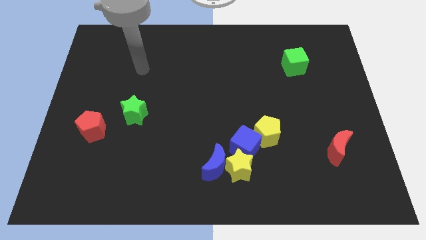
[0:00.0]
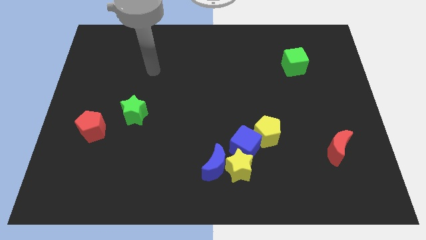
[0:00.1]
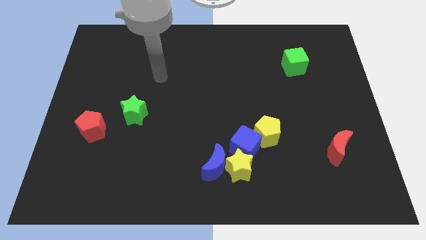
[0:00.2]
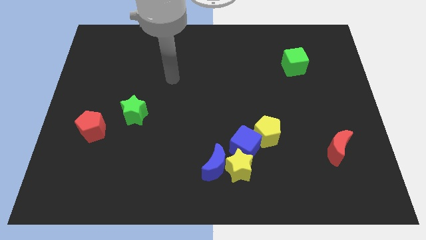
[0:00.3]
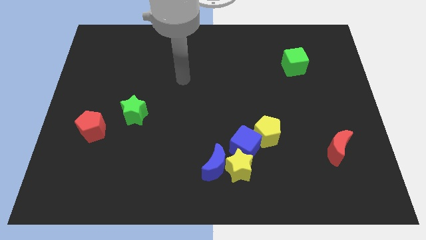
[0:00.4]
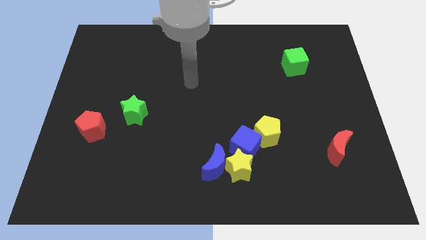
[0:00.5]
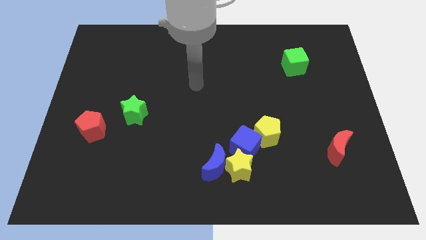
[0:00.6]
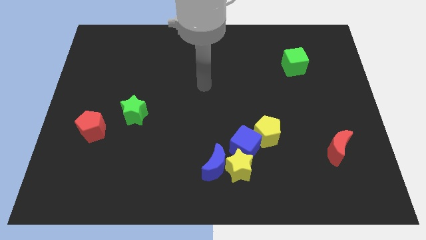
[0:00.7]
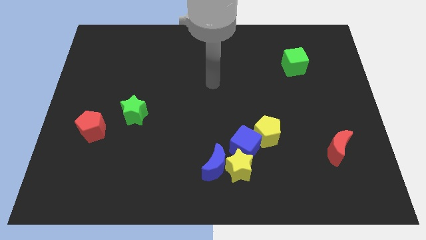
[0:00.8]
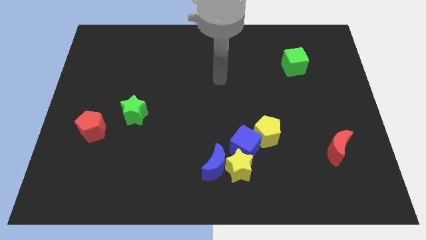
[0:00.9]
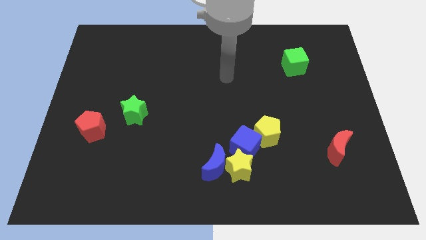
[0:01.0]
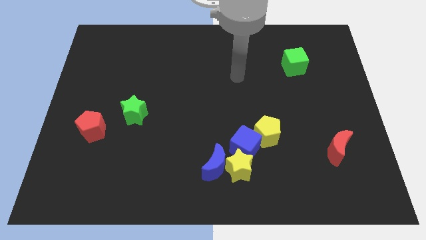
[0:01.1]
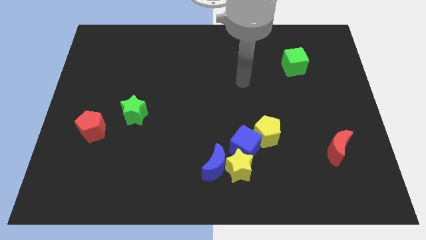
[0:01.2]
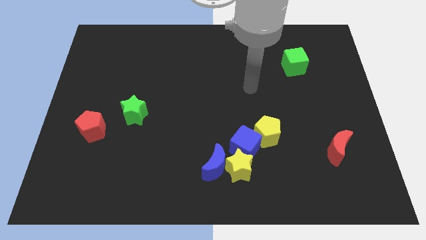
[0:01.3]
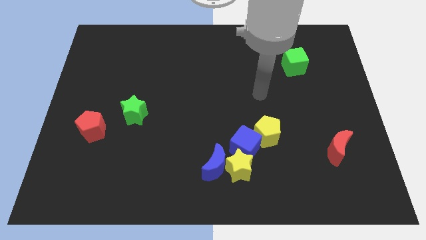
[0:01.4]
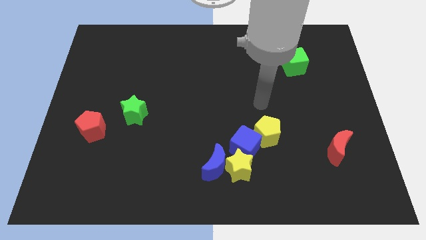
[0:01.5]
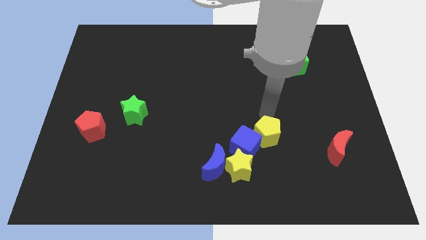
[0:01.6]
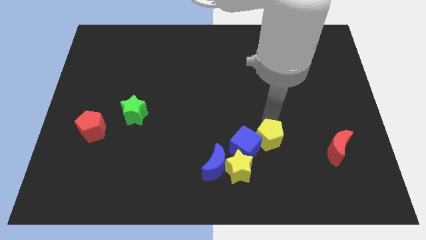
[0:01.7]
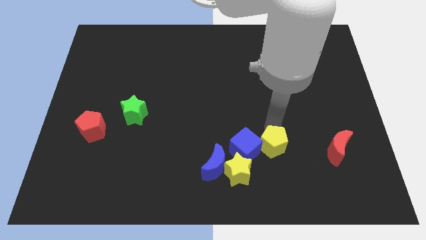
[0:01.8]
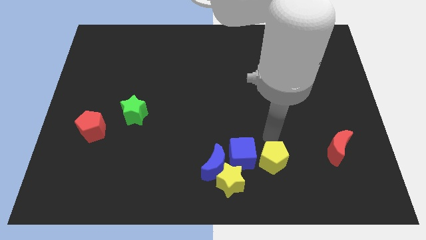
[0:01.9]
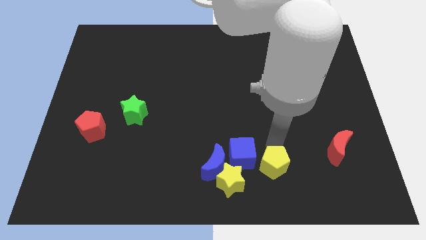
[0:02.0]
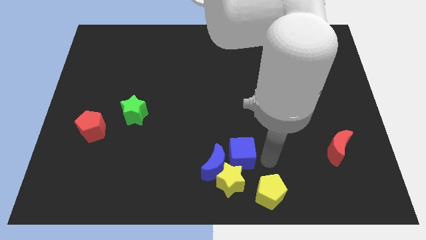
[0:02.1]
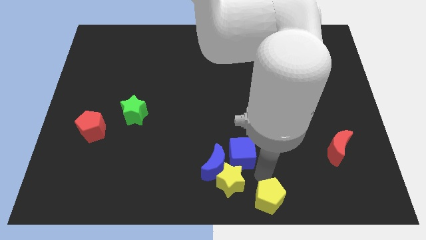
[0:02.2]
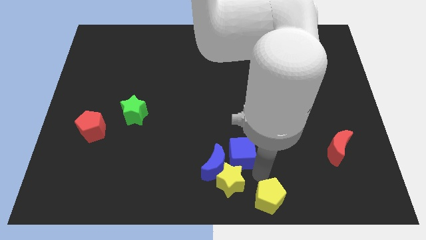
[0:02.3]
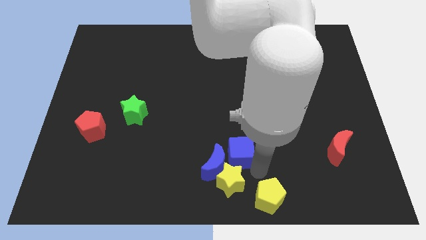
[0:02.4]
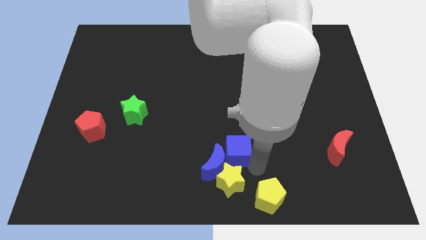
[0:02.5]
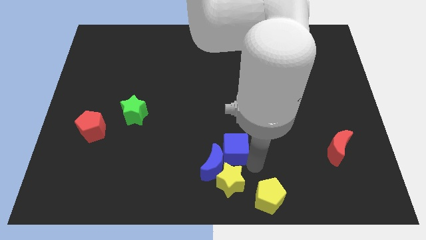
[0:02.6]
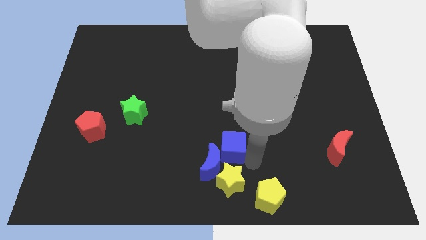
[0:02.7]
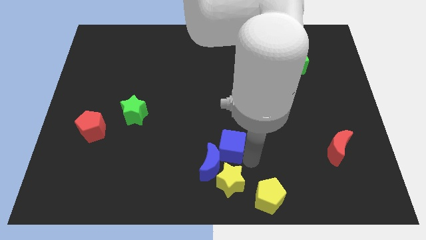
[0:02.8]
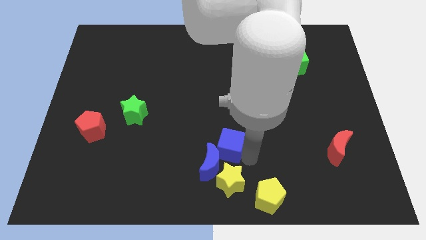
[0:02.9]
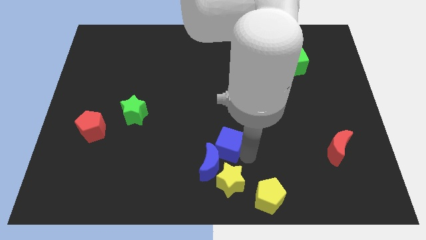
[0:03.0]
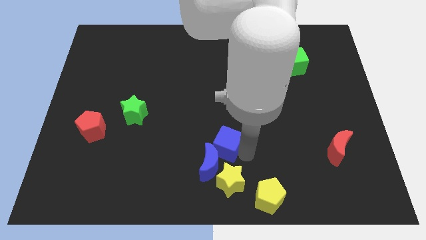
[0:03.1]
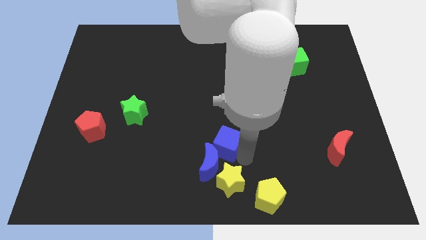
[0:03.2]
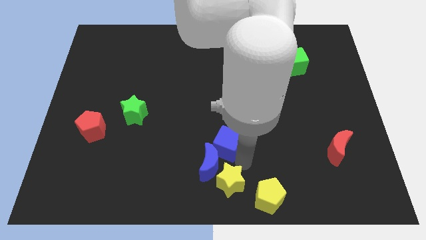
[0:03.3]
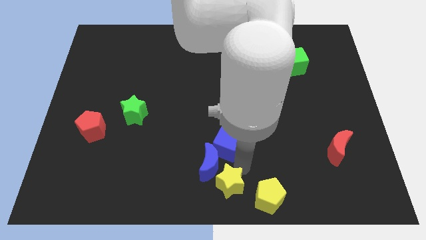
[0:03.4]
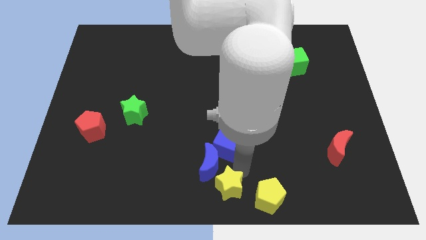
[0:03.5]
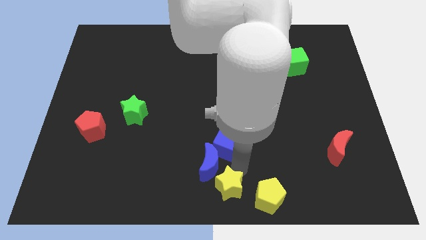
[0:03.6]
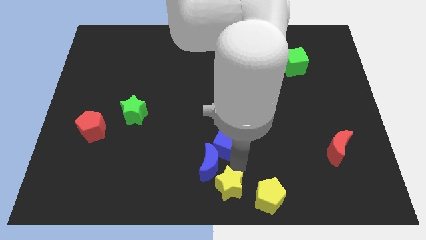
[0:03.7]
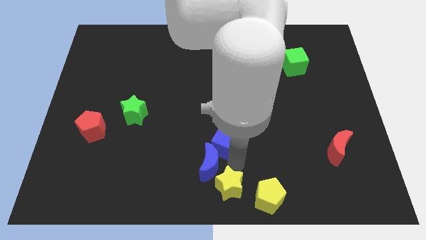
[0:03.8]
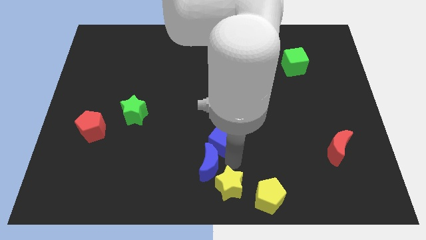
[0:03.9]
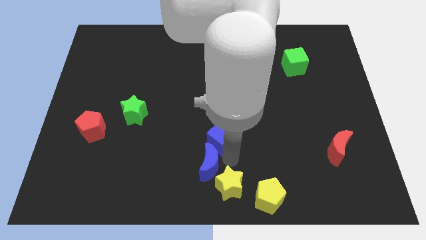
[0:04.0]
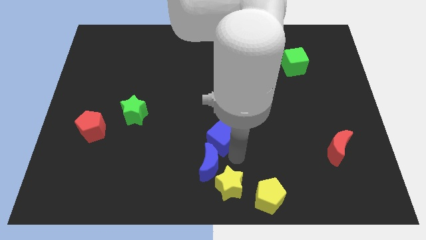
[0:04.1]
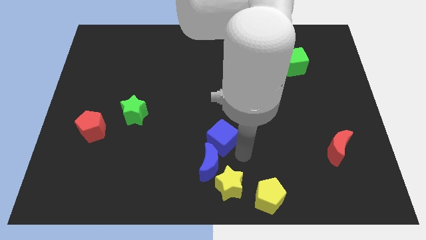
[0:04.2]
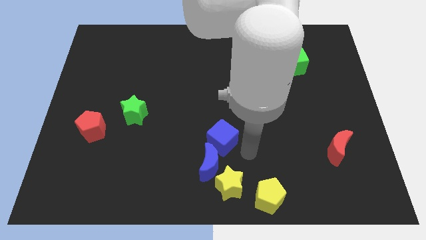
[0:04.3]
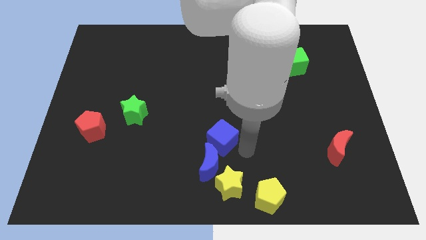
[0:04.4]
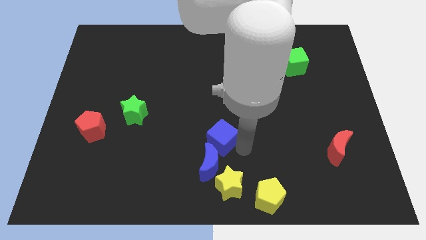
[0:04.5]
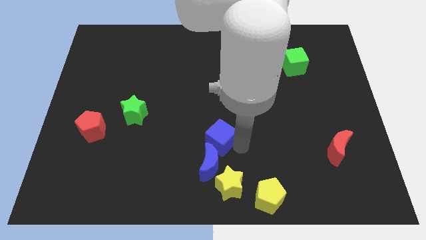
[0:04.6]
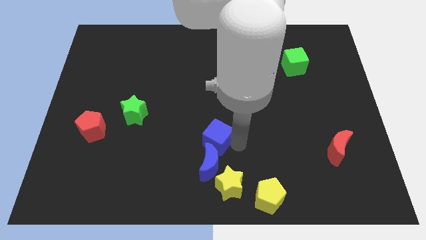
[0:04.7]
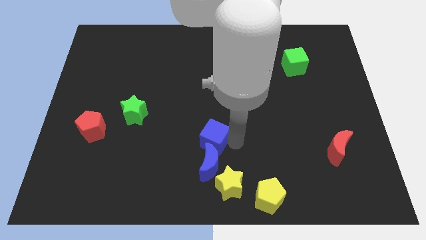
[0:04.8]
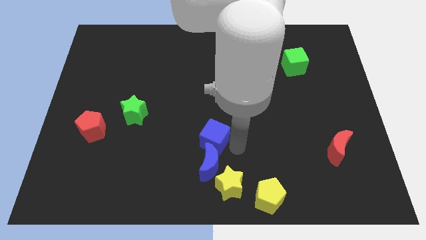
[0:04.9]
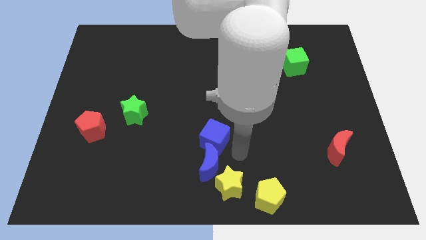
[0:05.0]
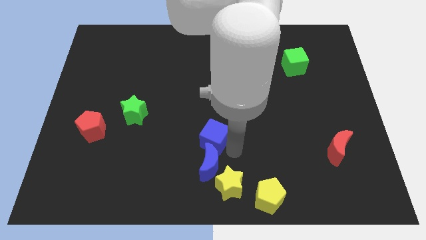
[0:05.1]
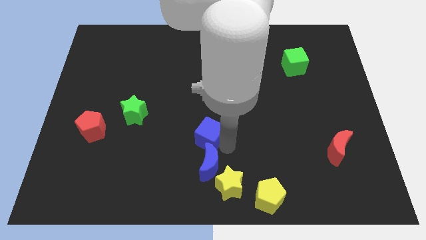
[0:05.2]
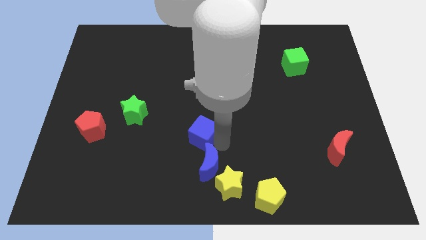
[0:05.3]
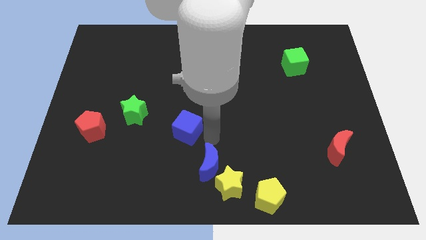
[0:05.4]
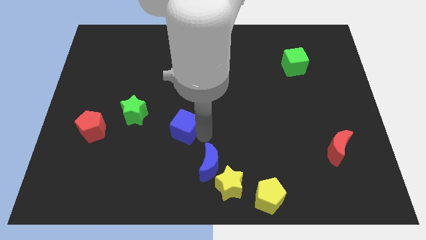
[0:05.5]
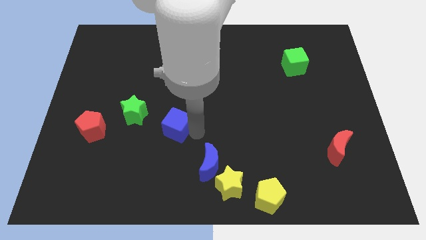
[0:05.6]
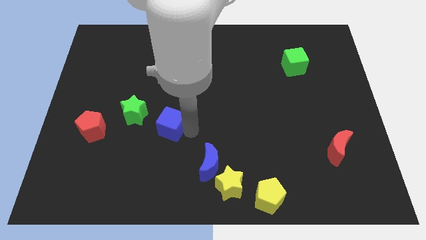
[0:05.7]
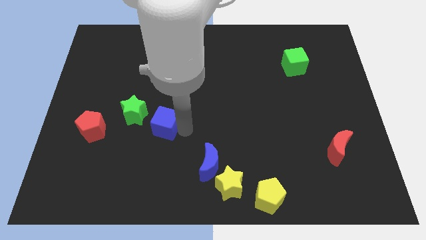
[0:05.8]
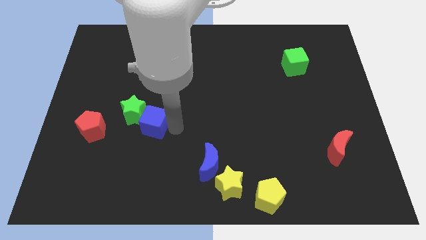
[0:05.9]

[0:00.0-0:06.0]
put the blue cube next to the green star

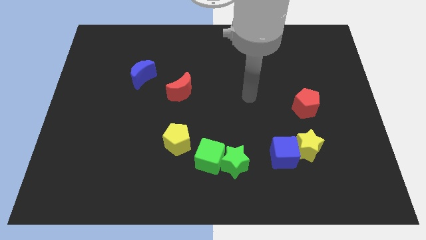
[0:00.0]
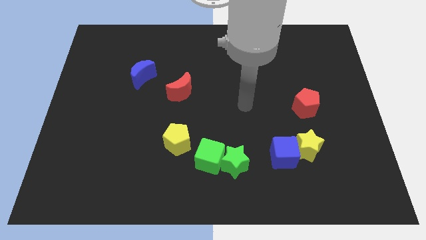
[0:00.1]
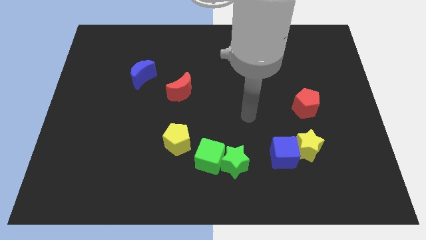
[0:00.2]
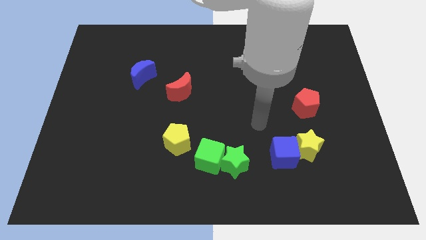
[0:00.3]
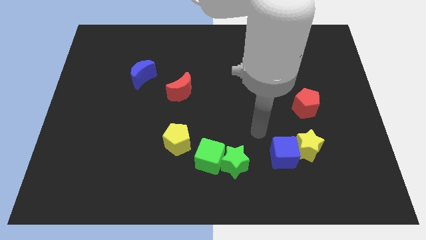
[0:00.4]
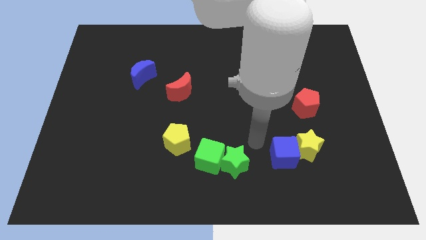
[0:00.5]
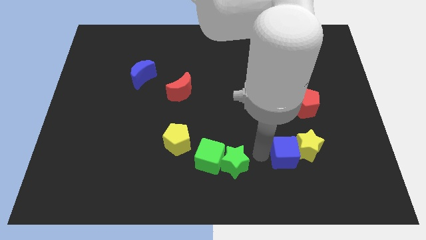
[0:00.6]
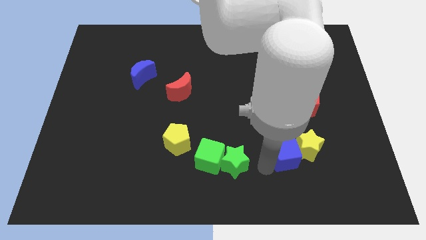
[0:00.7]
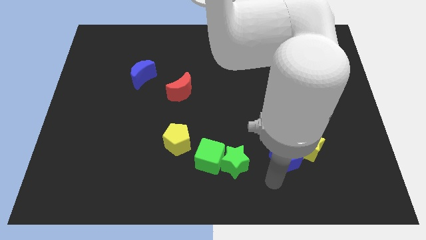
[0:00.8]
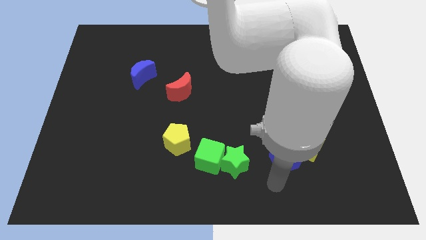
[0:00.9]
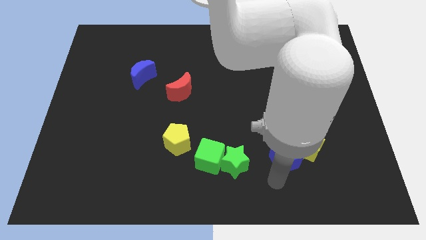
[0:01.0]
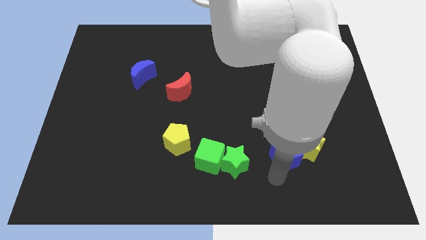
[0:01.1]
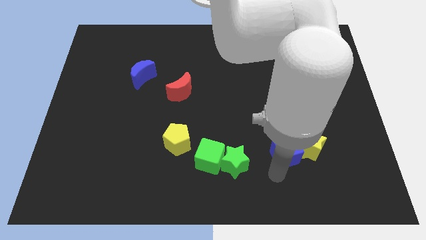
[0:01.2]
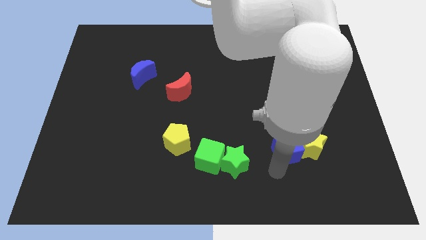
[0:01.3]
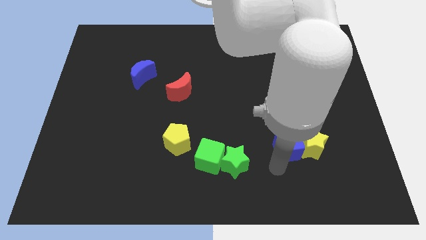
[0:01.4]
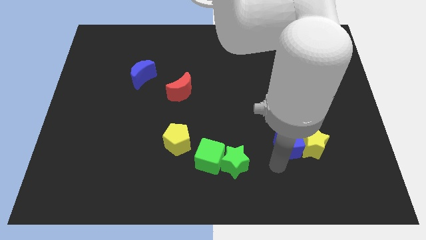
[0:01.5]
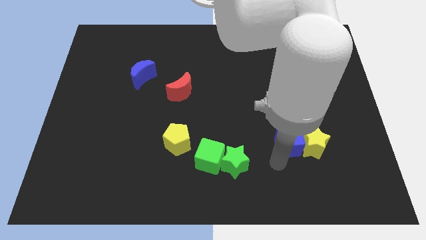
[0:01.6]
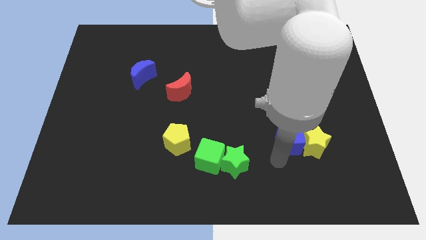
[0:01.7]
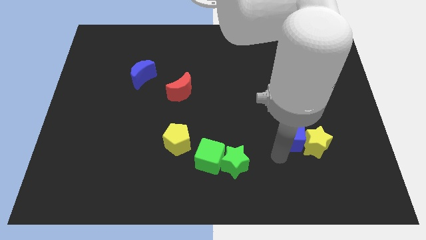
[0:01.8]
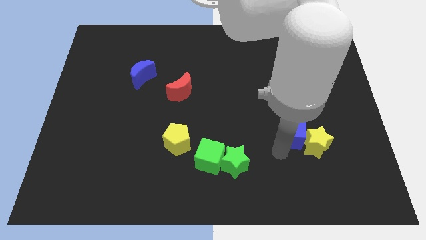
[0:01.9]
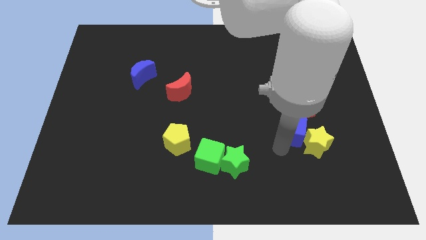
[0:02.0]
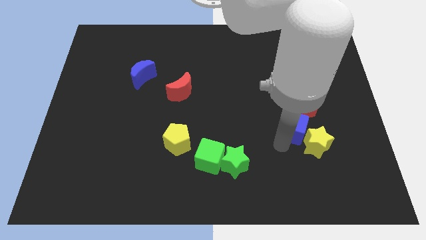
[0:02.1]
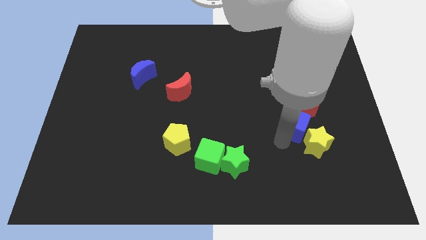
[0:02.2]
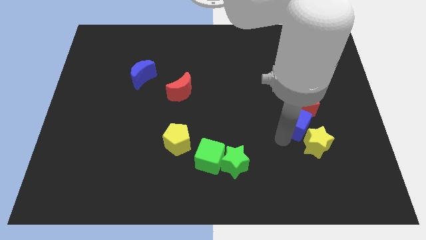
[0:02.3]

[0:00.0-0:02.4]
push the blue cube to the red pentagon
